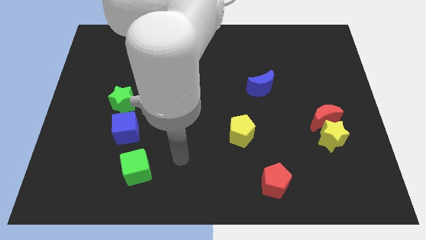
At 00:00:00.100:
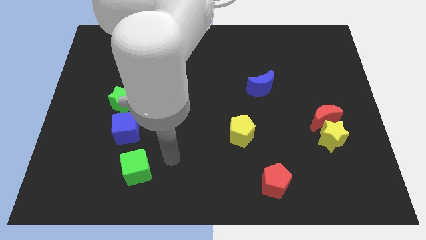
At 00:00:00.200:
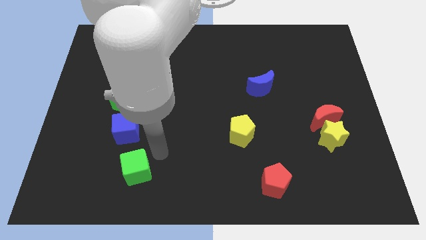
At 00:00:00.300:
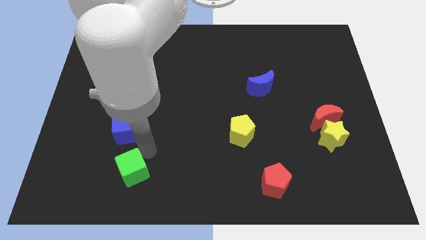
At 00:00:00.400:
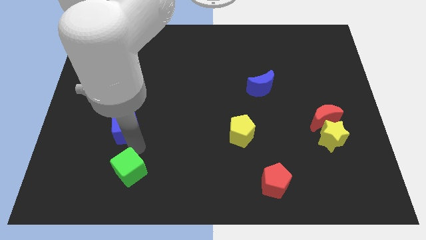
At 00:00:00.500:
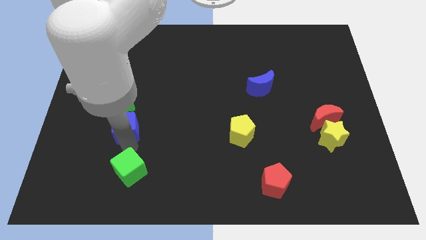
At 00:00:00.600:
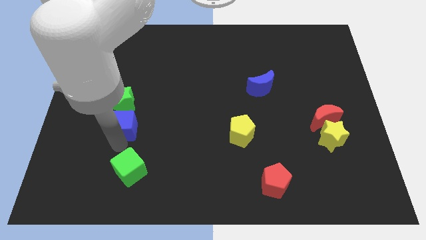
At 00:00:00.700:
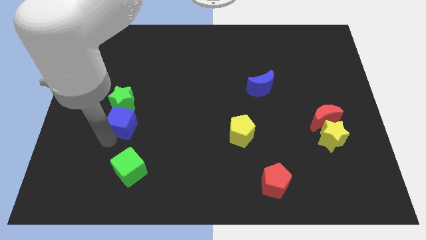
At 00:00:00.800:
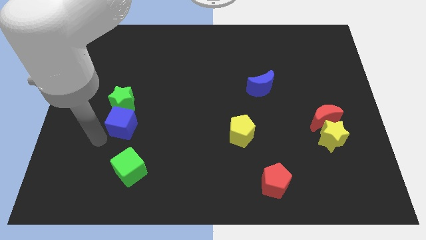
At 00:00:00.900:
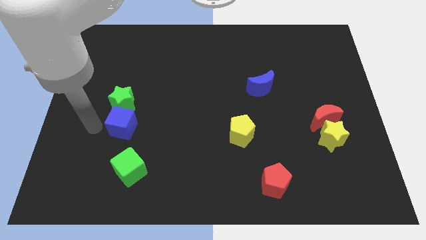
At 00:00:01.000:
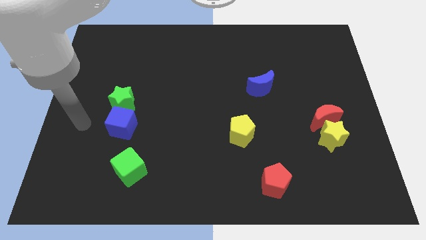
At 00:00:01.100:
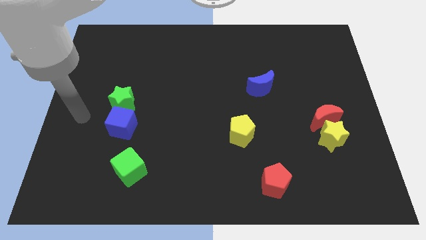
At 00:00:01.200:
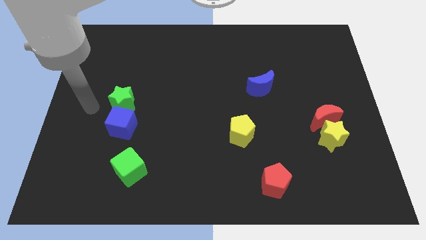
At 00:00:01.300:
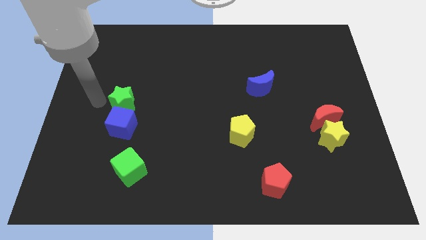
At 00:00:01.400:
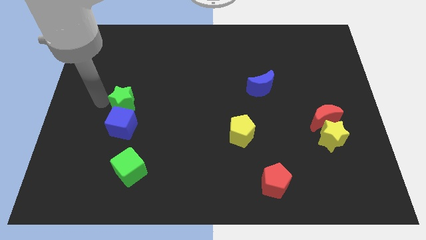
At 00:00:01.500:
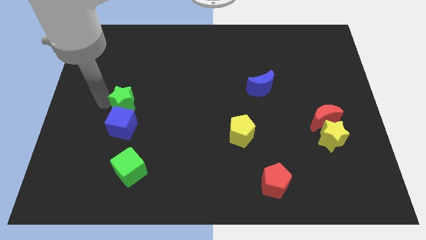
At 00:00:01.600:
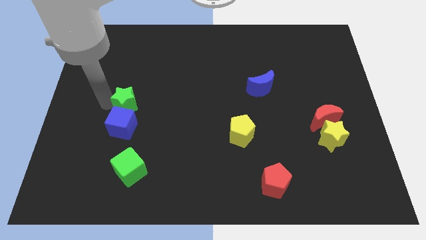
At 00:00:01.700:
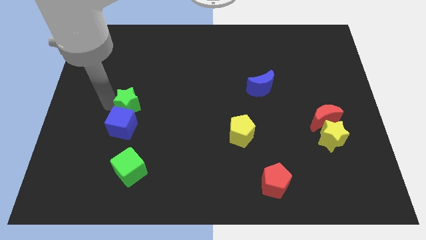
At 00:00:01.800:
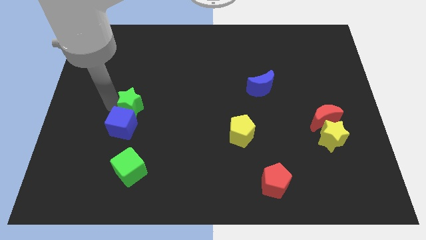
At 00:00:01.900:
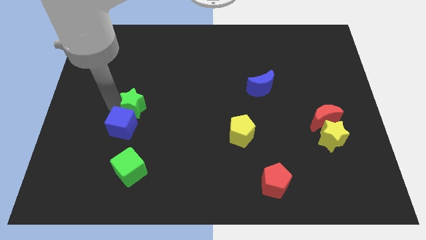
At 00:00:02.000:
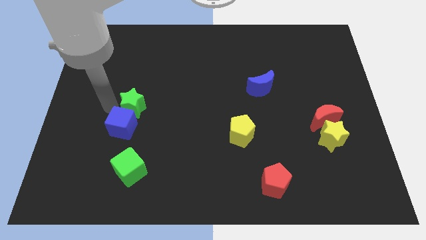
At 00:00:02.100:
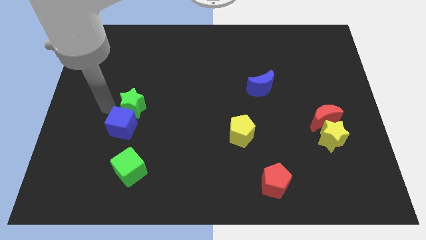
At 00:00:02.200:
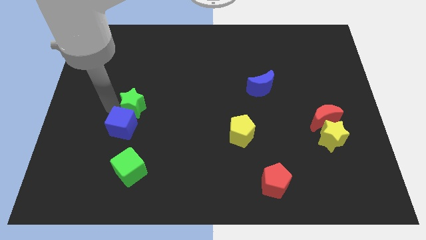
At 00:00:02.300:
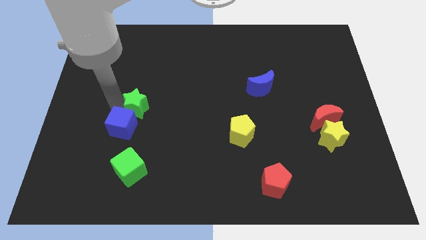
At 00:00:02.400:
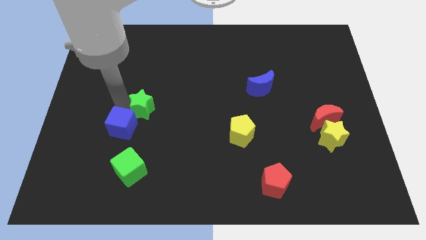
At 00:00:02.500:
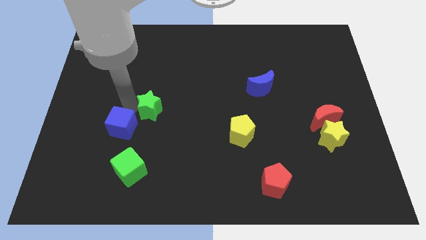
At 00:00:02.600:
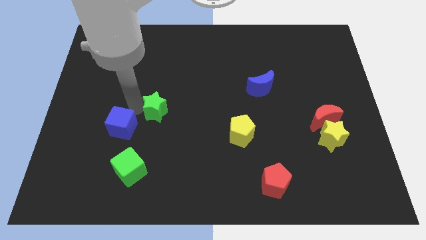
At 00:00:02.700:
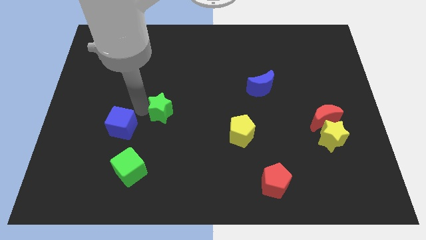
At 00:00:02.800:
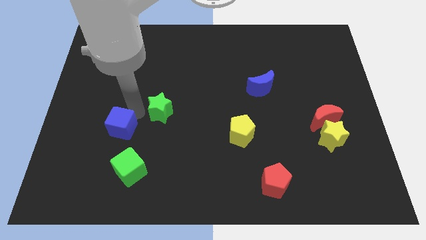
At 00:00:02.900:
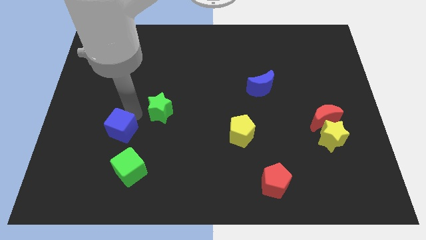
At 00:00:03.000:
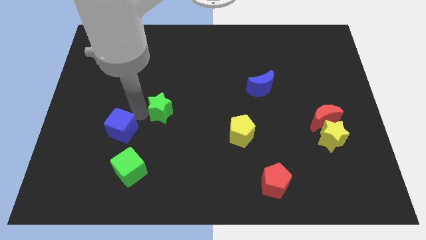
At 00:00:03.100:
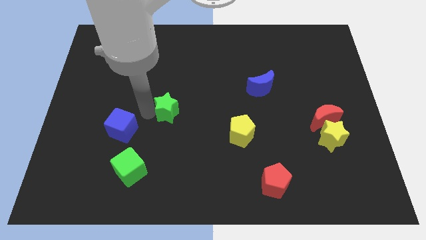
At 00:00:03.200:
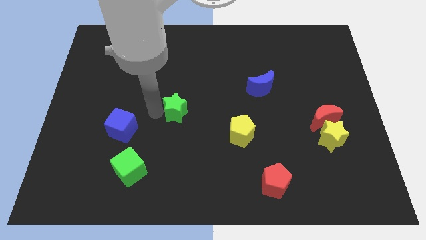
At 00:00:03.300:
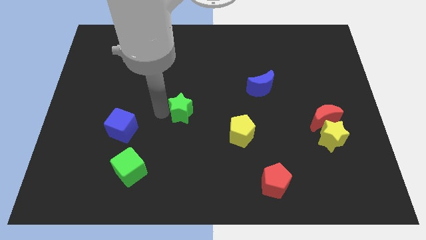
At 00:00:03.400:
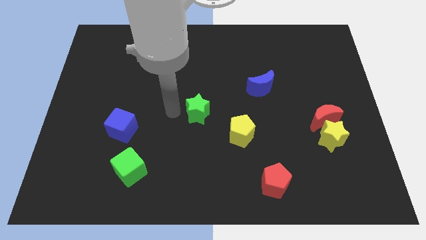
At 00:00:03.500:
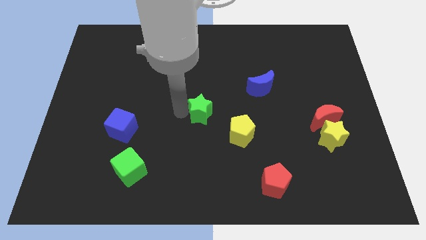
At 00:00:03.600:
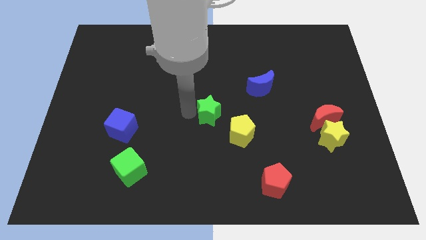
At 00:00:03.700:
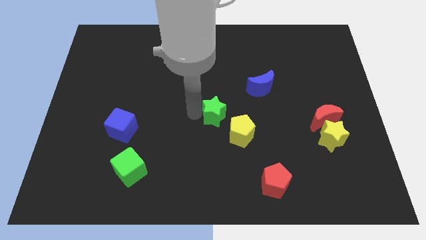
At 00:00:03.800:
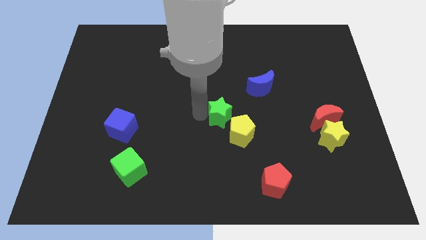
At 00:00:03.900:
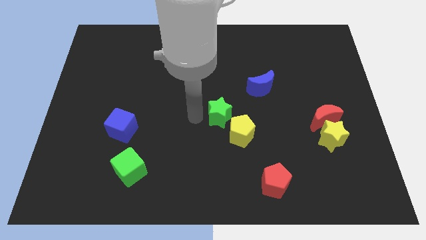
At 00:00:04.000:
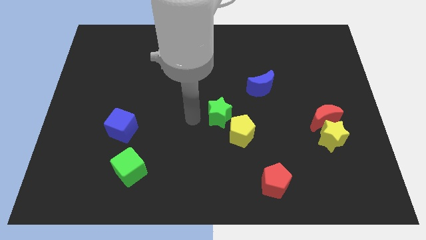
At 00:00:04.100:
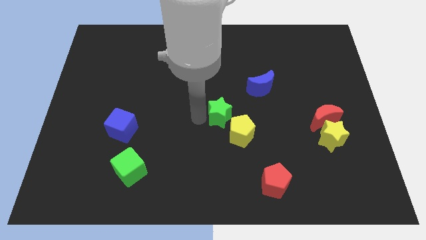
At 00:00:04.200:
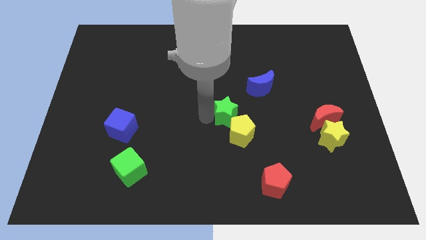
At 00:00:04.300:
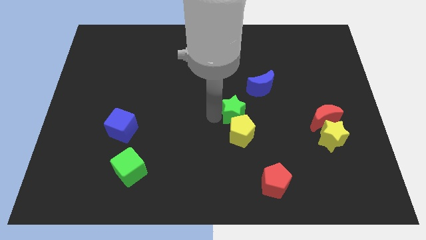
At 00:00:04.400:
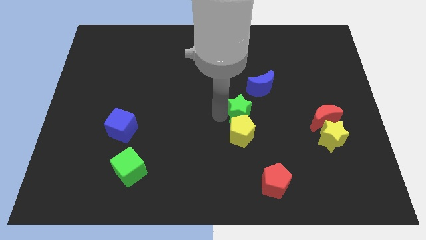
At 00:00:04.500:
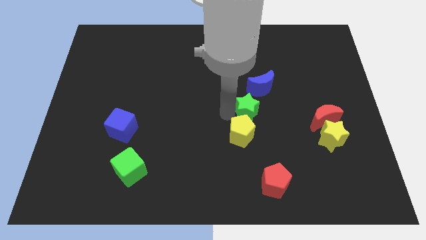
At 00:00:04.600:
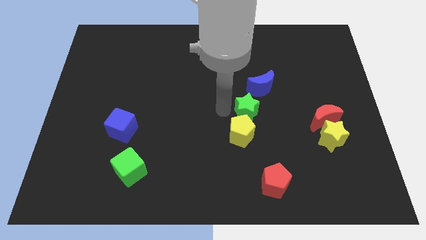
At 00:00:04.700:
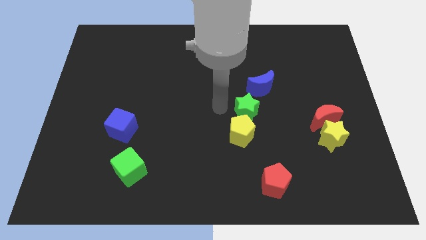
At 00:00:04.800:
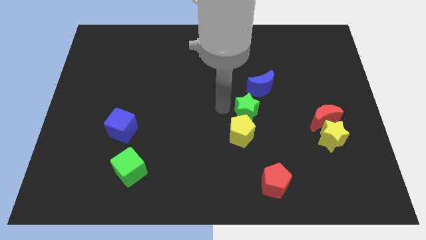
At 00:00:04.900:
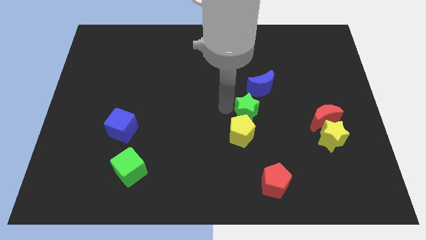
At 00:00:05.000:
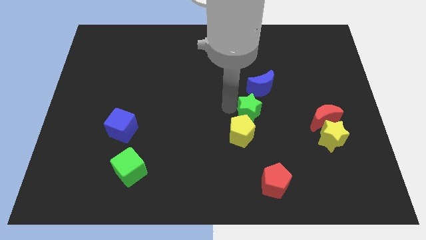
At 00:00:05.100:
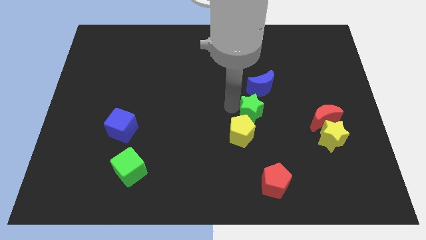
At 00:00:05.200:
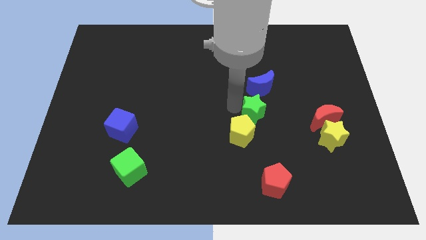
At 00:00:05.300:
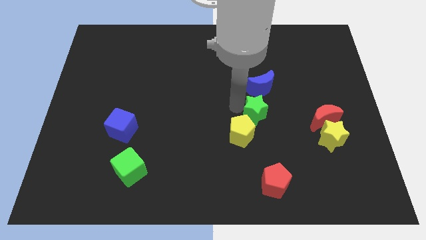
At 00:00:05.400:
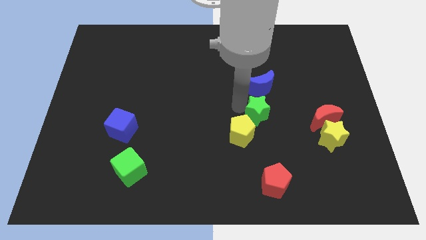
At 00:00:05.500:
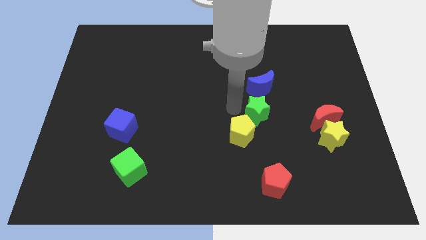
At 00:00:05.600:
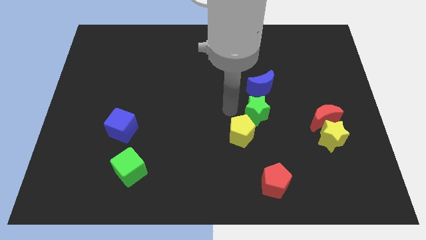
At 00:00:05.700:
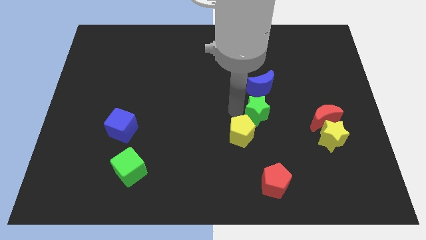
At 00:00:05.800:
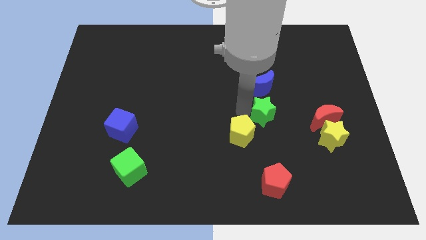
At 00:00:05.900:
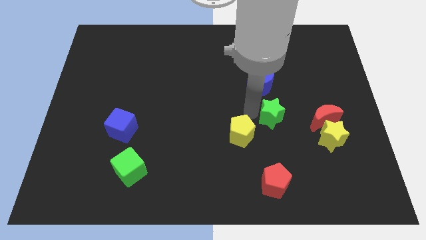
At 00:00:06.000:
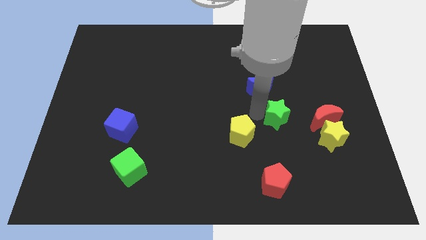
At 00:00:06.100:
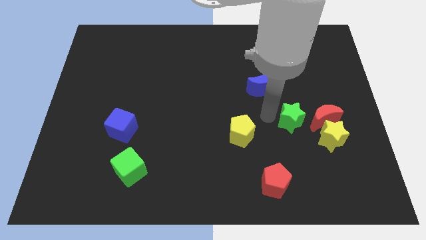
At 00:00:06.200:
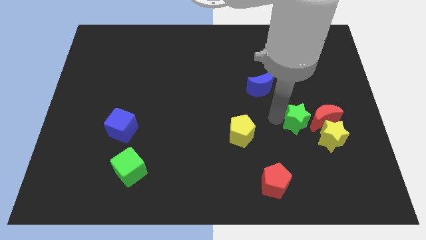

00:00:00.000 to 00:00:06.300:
put the green star towards the red moon

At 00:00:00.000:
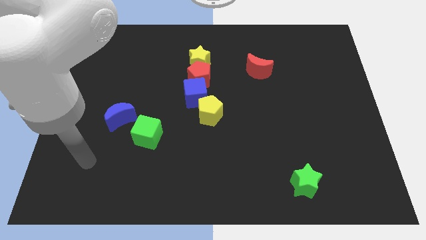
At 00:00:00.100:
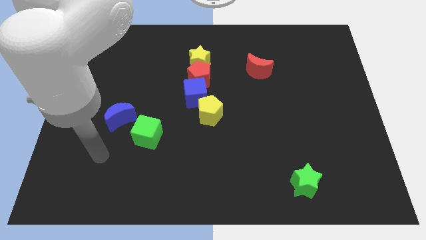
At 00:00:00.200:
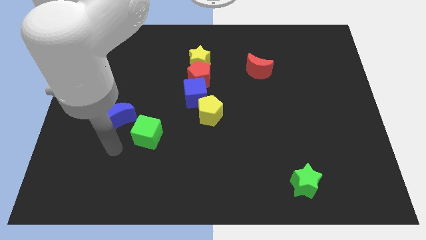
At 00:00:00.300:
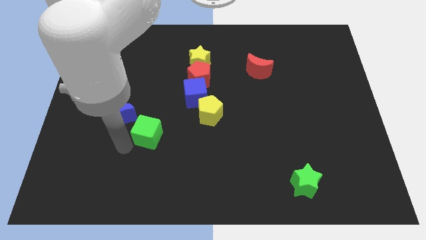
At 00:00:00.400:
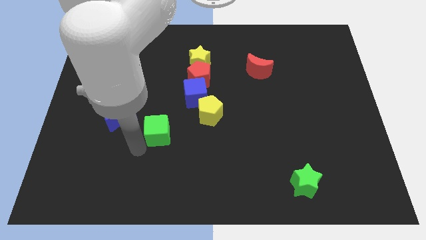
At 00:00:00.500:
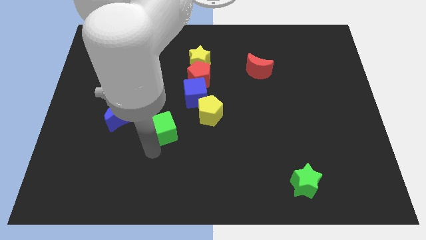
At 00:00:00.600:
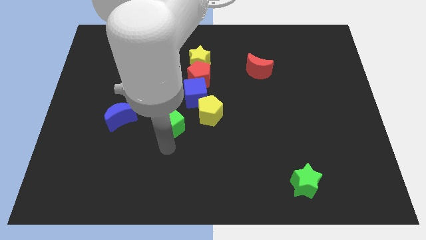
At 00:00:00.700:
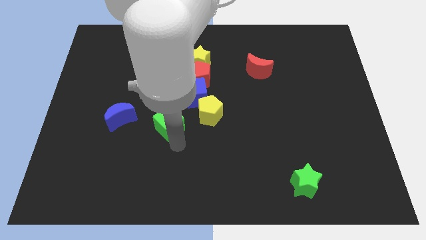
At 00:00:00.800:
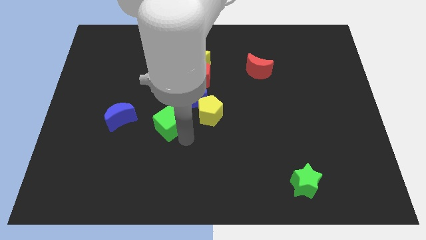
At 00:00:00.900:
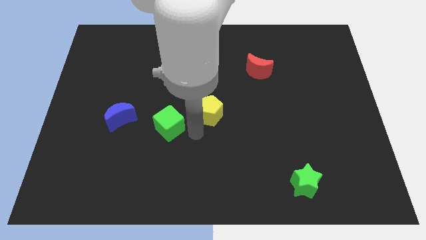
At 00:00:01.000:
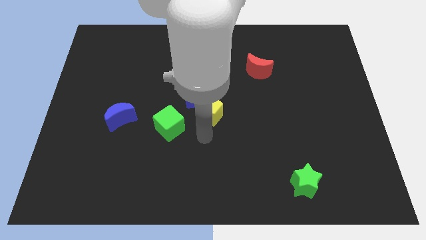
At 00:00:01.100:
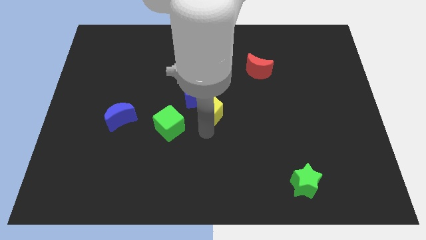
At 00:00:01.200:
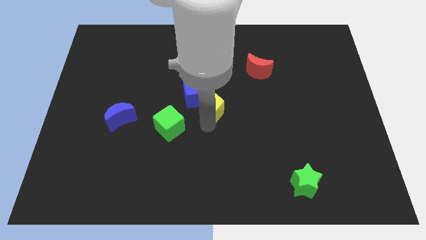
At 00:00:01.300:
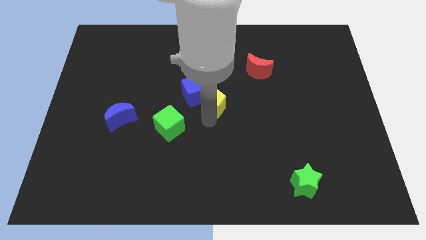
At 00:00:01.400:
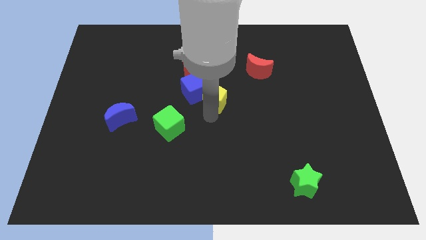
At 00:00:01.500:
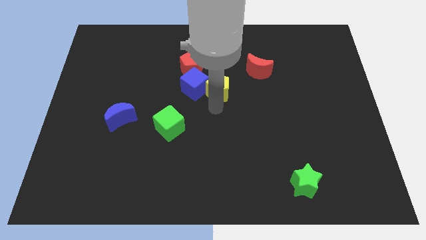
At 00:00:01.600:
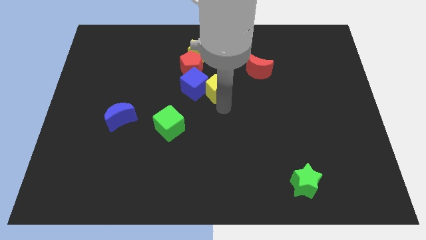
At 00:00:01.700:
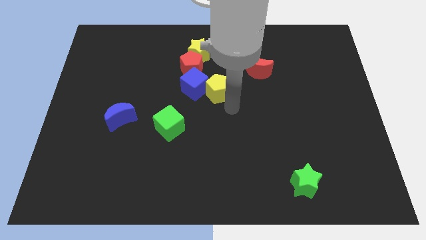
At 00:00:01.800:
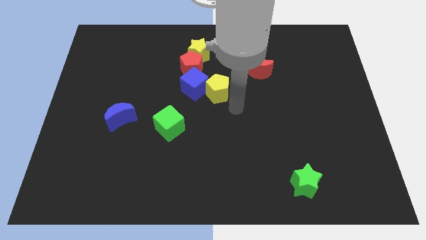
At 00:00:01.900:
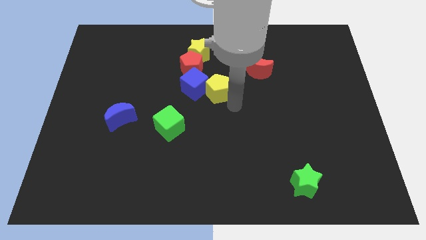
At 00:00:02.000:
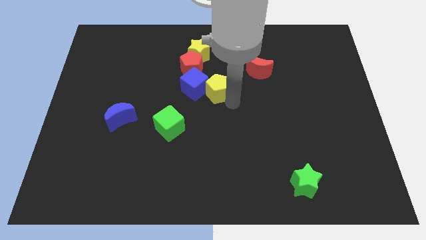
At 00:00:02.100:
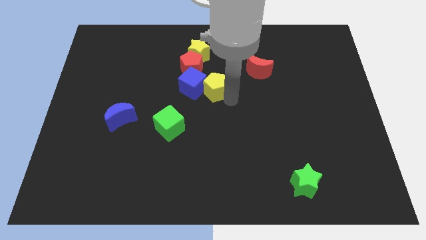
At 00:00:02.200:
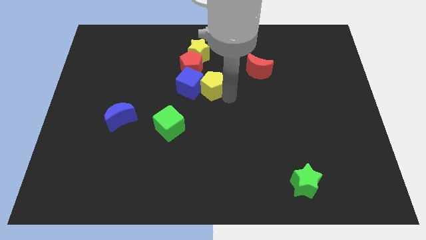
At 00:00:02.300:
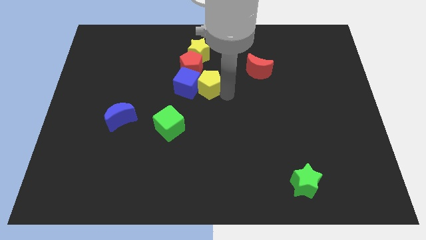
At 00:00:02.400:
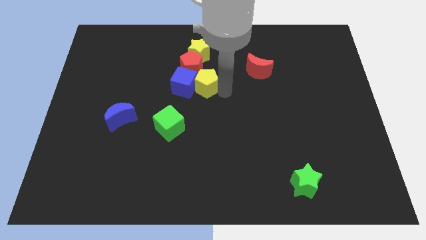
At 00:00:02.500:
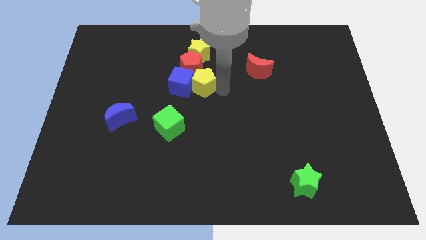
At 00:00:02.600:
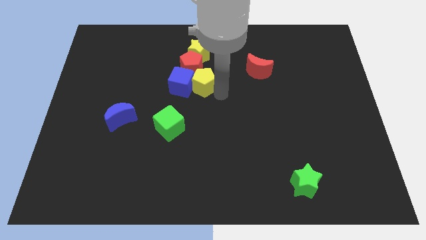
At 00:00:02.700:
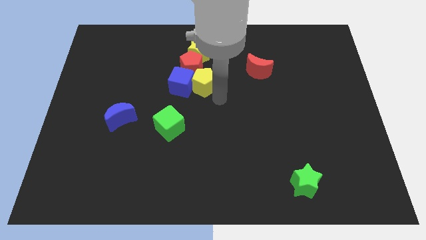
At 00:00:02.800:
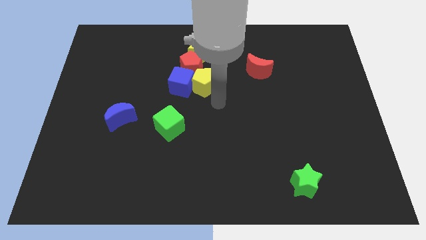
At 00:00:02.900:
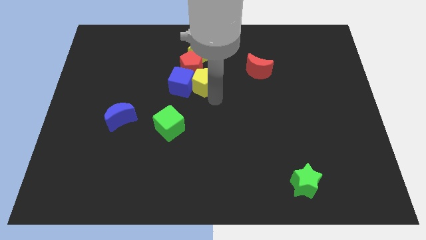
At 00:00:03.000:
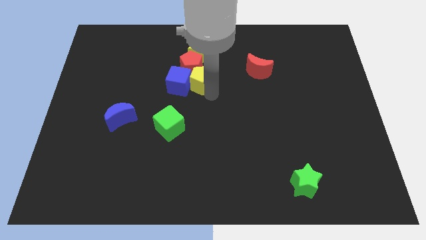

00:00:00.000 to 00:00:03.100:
put the yellow pentagon to the red pentagon
